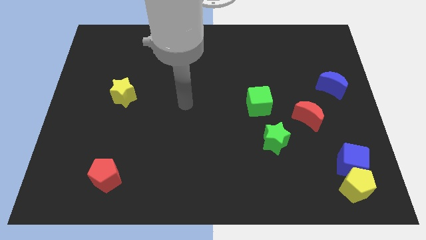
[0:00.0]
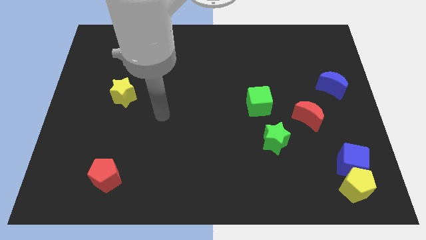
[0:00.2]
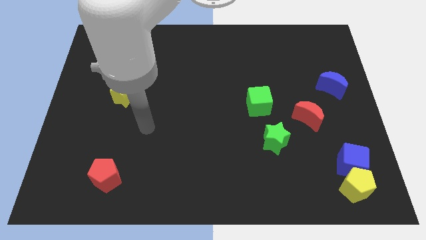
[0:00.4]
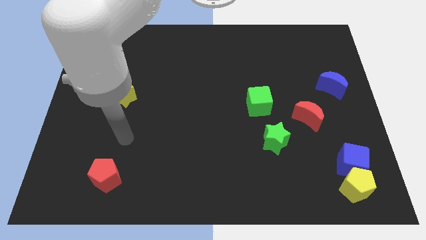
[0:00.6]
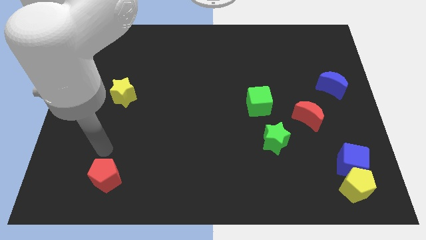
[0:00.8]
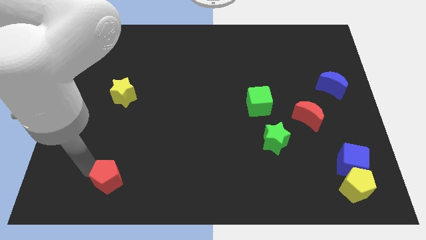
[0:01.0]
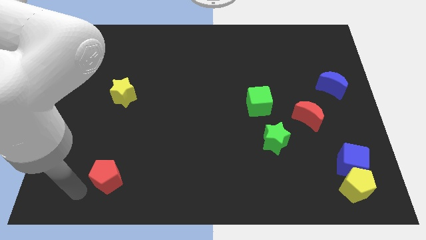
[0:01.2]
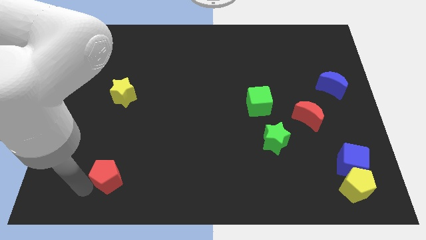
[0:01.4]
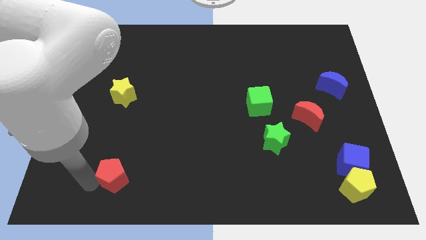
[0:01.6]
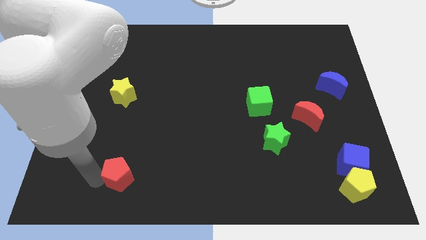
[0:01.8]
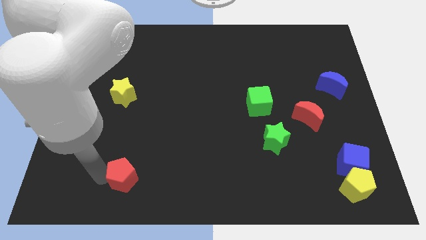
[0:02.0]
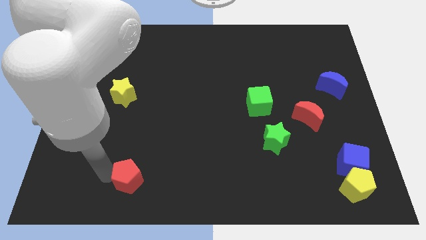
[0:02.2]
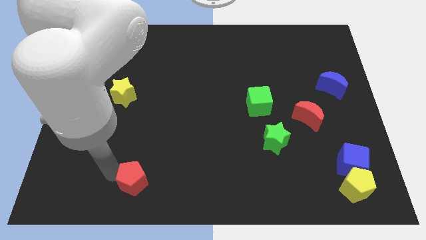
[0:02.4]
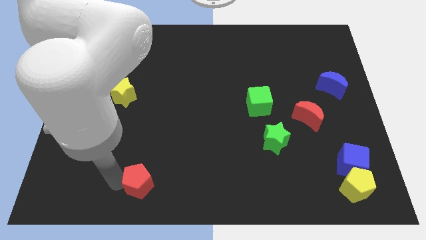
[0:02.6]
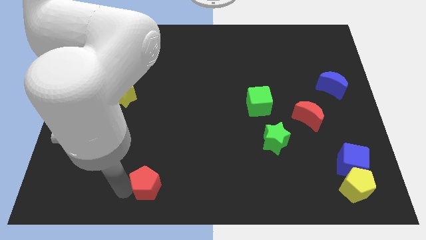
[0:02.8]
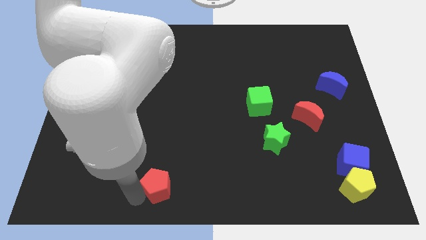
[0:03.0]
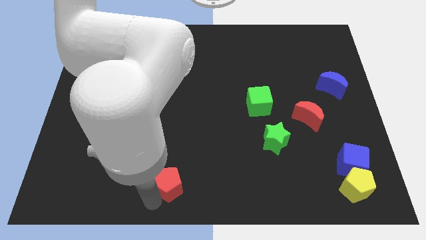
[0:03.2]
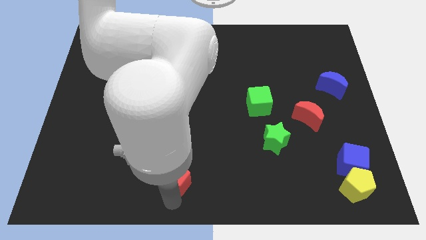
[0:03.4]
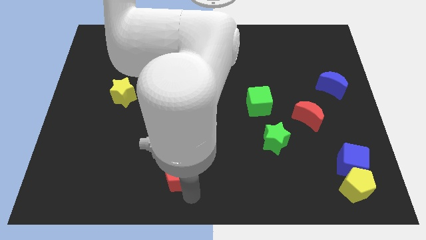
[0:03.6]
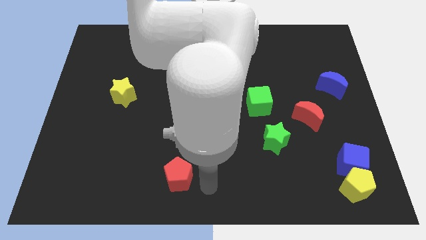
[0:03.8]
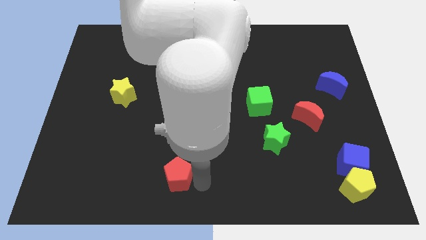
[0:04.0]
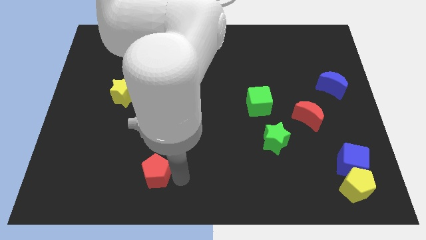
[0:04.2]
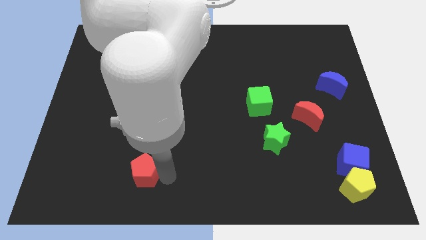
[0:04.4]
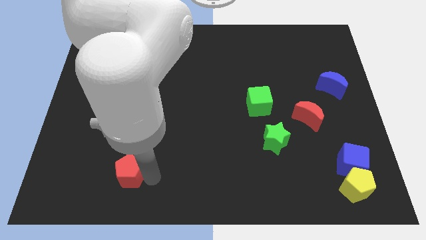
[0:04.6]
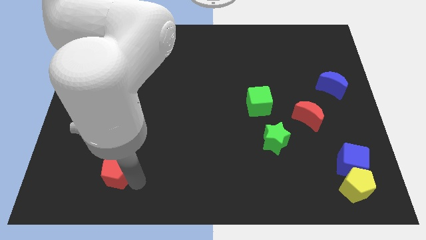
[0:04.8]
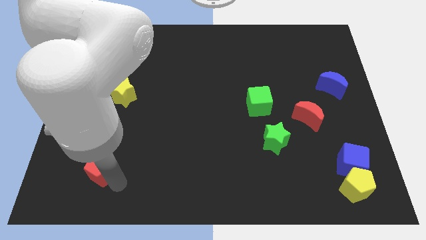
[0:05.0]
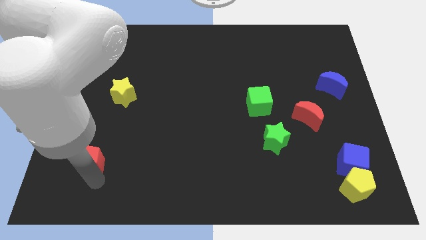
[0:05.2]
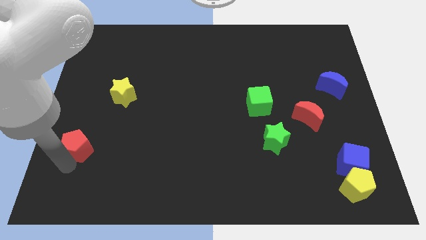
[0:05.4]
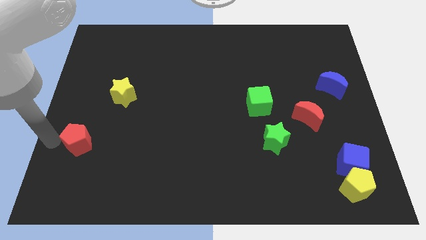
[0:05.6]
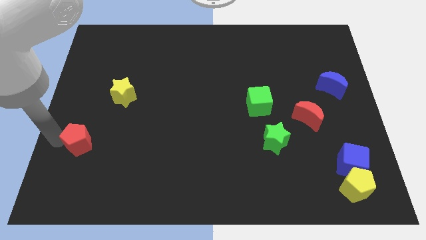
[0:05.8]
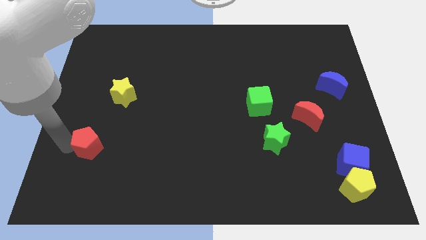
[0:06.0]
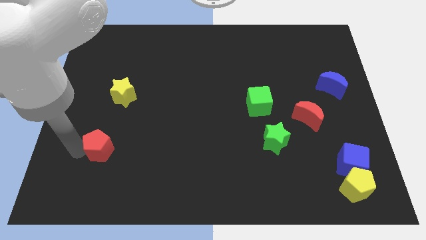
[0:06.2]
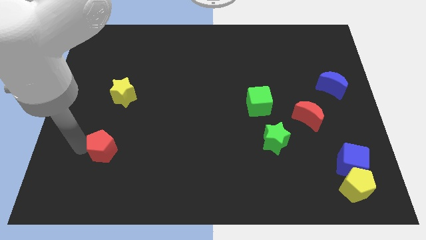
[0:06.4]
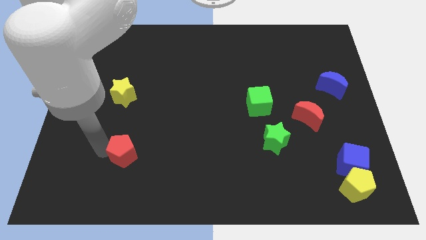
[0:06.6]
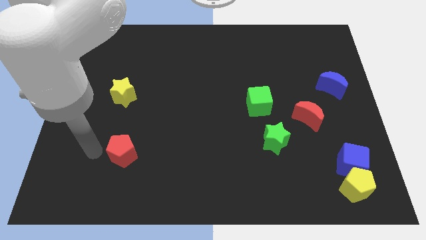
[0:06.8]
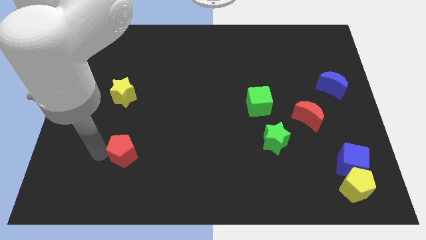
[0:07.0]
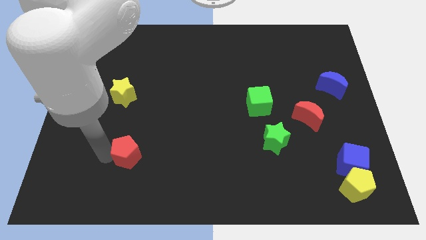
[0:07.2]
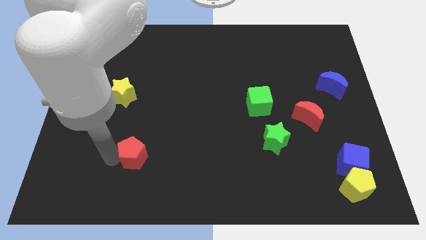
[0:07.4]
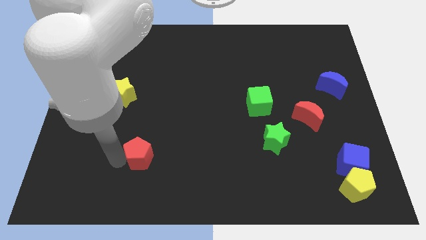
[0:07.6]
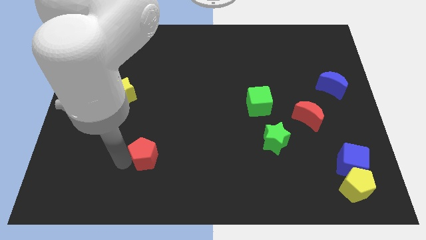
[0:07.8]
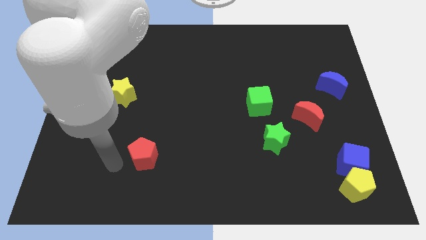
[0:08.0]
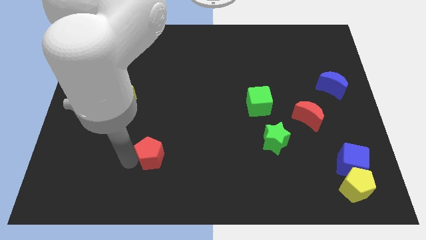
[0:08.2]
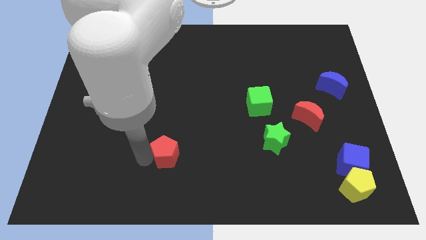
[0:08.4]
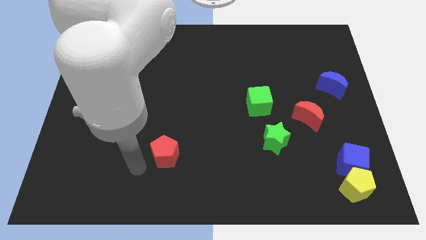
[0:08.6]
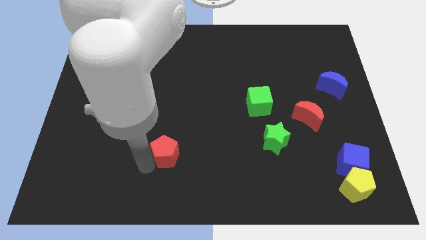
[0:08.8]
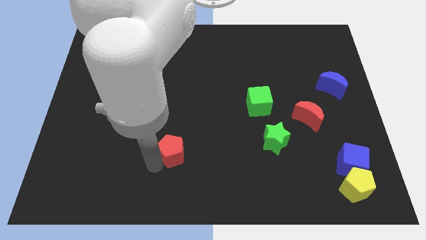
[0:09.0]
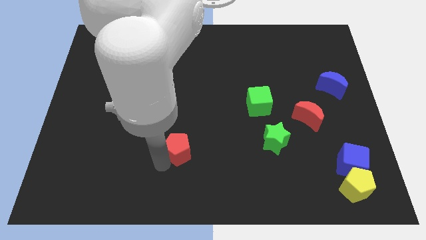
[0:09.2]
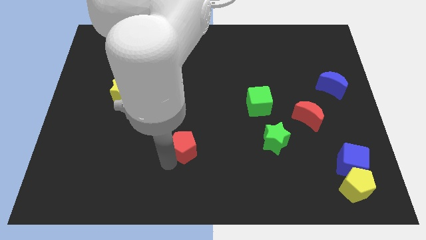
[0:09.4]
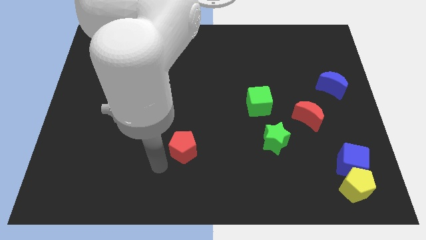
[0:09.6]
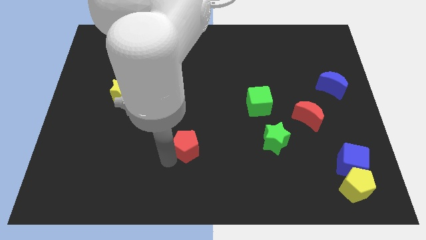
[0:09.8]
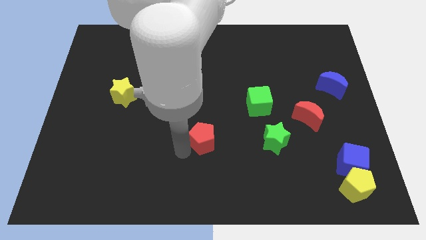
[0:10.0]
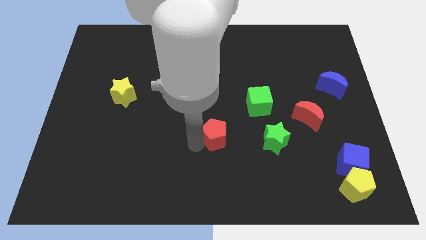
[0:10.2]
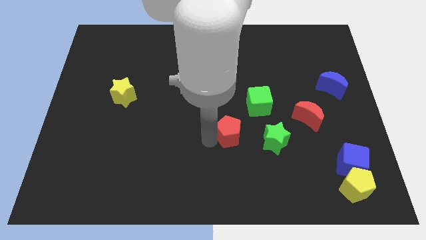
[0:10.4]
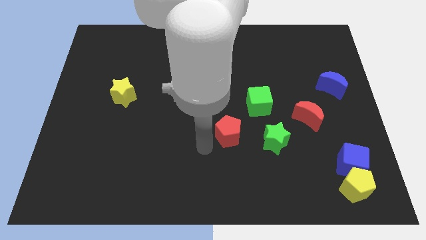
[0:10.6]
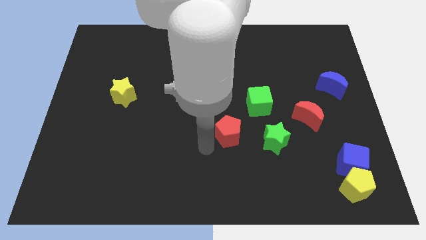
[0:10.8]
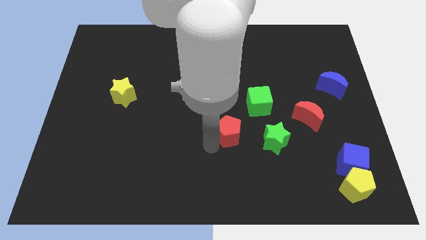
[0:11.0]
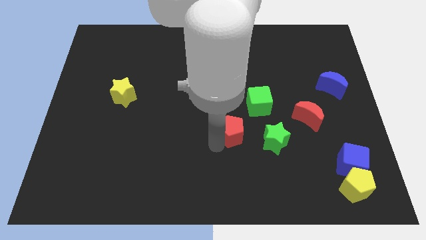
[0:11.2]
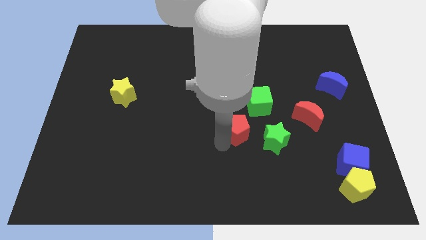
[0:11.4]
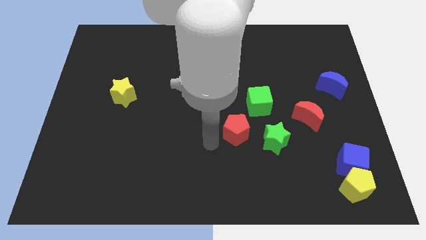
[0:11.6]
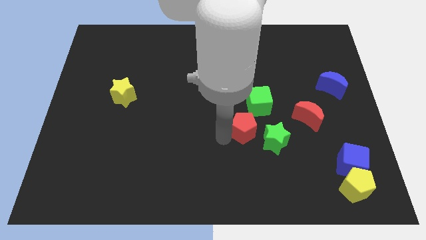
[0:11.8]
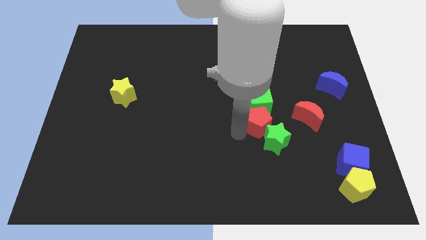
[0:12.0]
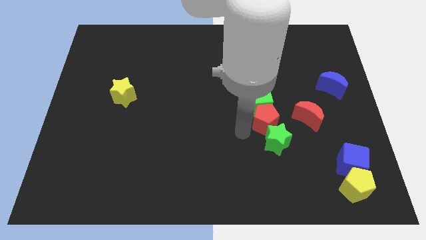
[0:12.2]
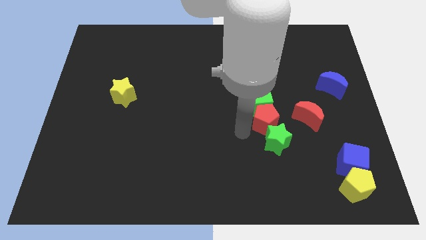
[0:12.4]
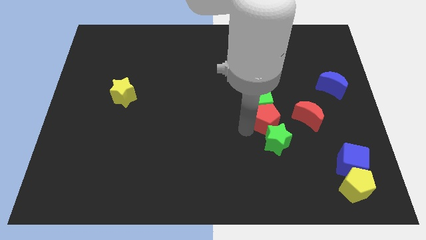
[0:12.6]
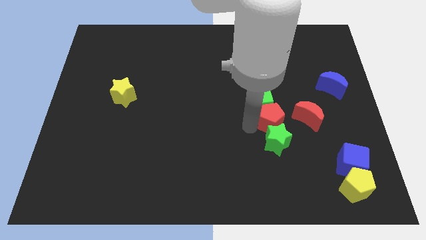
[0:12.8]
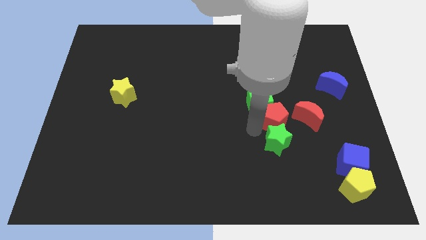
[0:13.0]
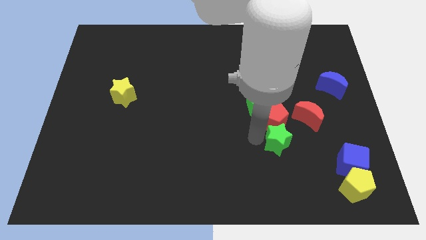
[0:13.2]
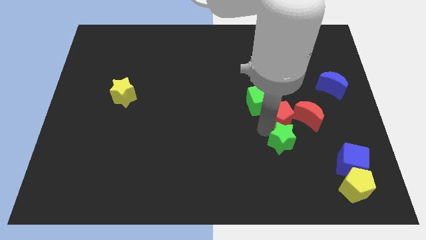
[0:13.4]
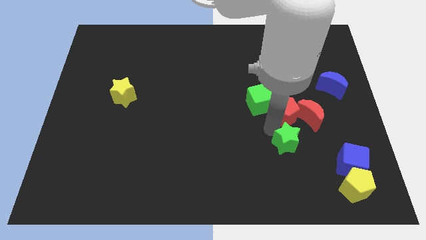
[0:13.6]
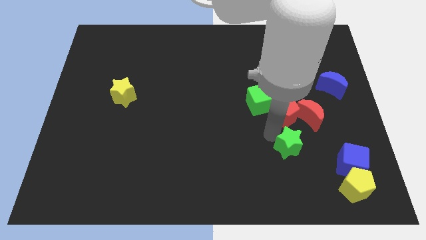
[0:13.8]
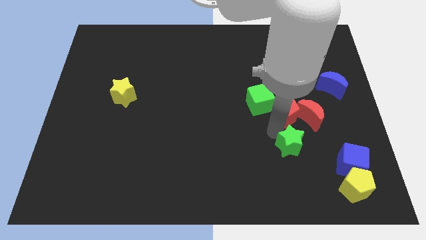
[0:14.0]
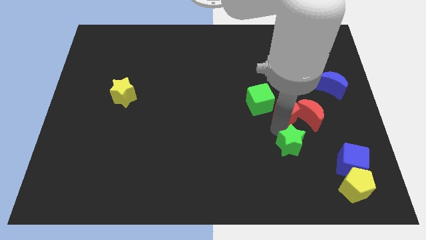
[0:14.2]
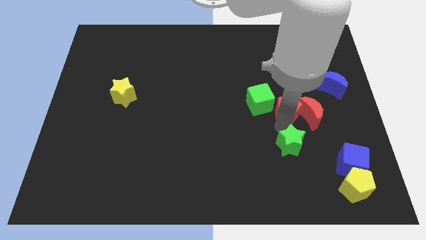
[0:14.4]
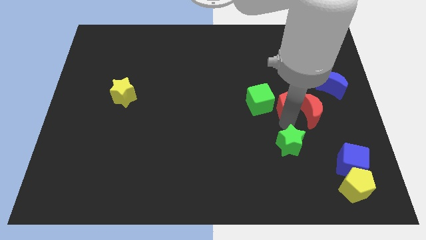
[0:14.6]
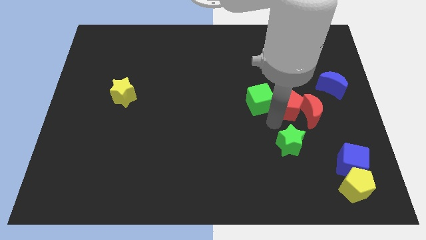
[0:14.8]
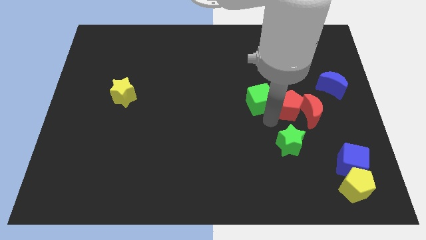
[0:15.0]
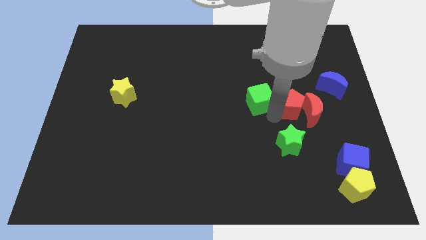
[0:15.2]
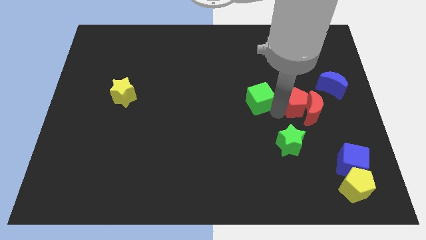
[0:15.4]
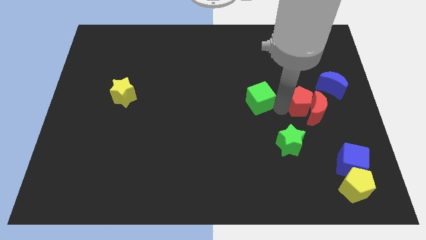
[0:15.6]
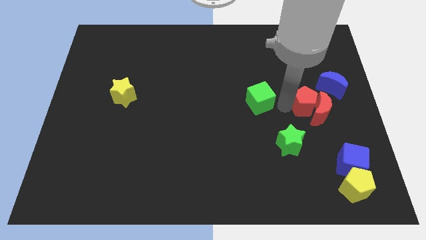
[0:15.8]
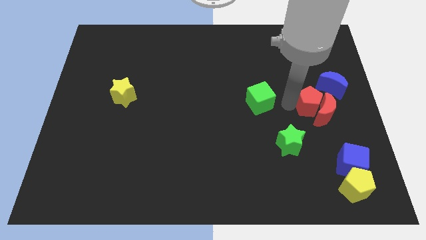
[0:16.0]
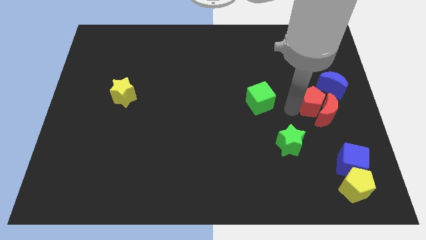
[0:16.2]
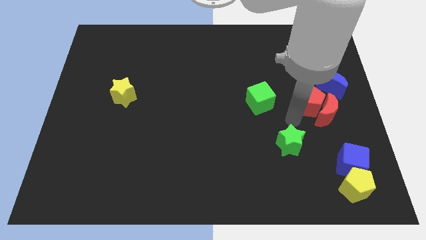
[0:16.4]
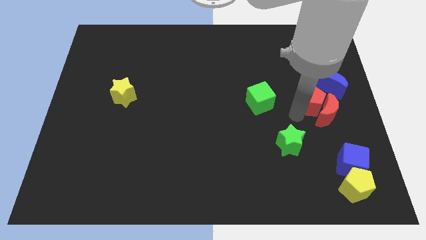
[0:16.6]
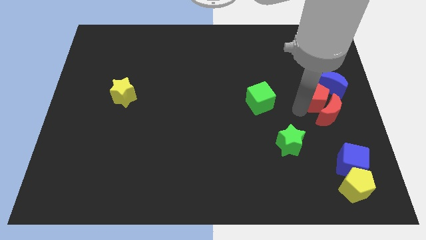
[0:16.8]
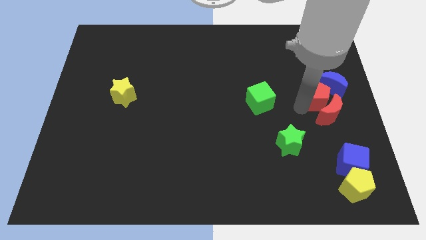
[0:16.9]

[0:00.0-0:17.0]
slide the red pentagon close to the blue moon
